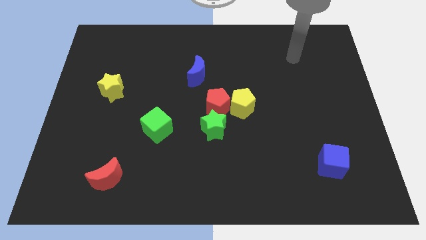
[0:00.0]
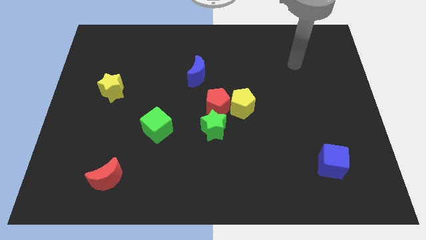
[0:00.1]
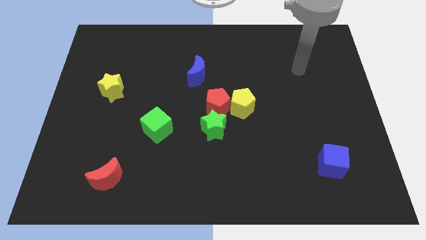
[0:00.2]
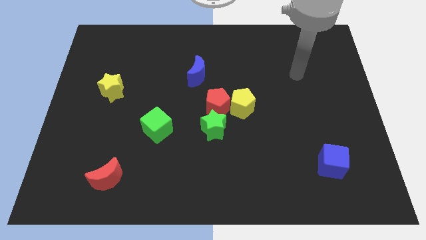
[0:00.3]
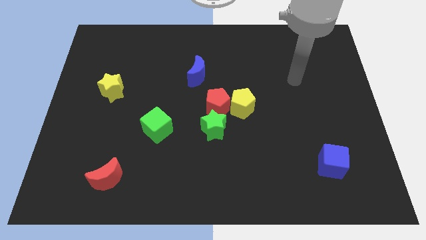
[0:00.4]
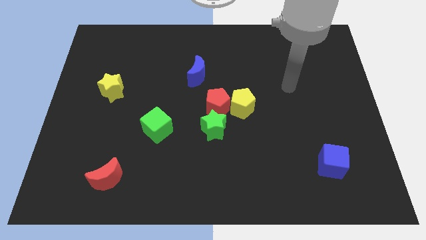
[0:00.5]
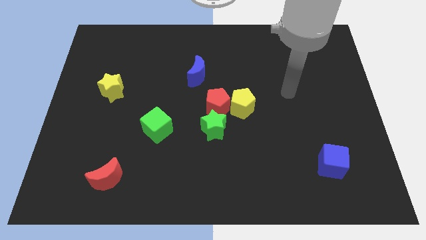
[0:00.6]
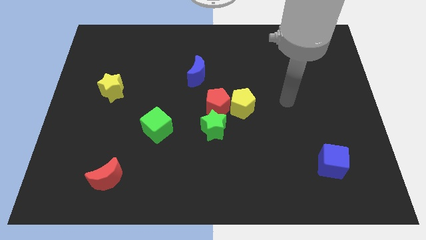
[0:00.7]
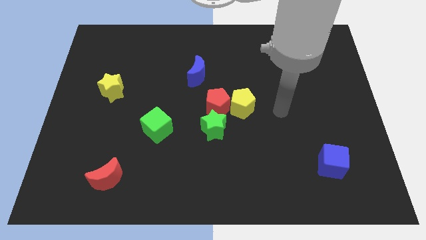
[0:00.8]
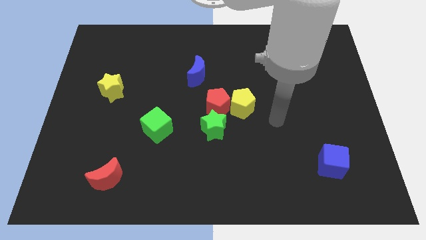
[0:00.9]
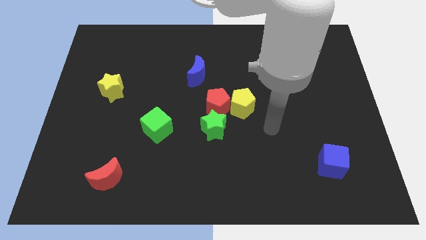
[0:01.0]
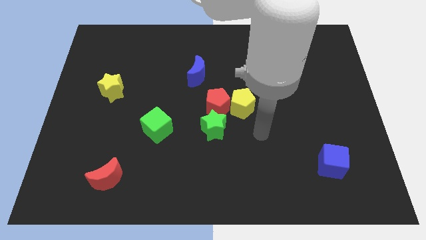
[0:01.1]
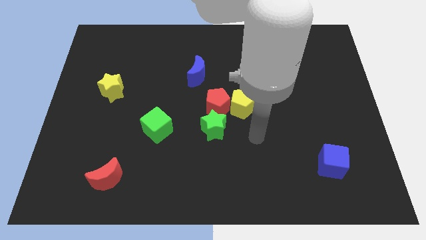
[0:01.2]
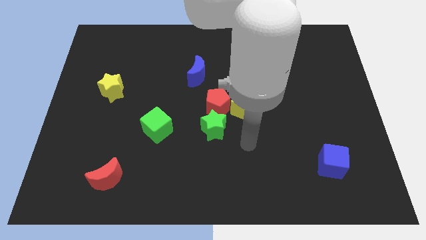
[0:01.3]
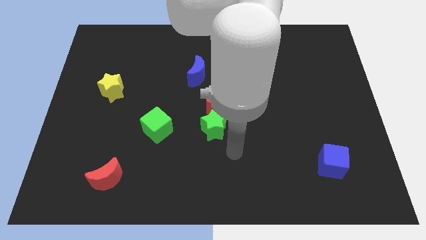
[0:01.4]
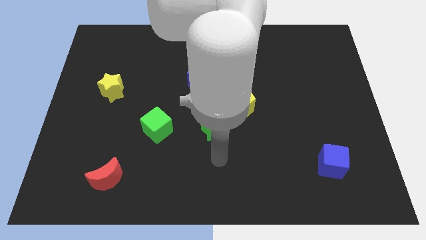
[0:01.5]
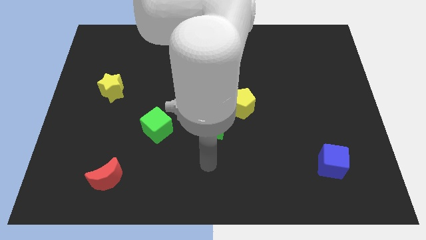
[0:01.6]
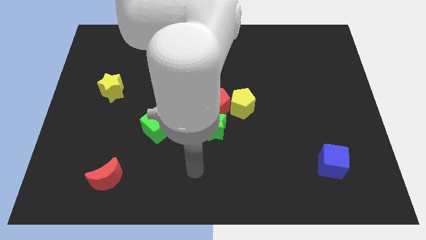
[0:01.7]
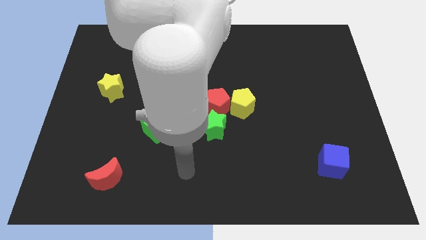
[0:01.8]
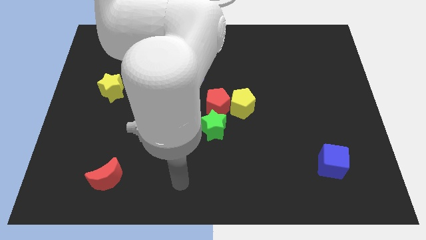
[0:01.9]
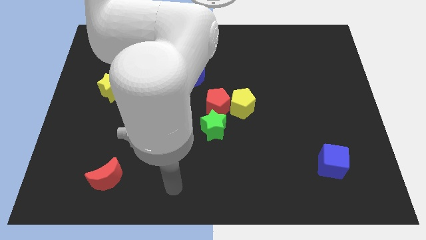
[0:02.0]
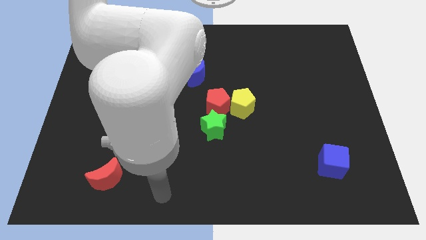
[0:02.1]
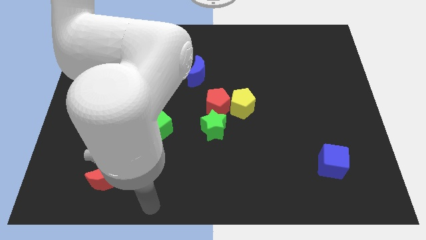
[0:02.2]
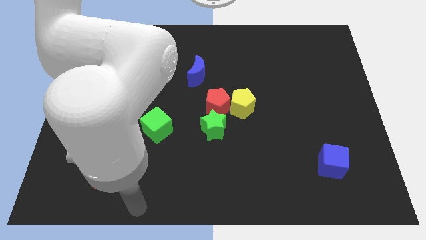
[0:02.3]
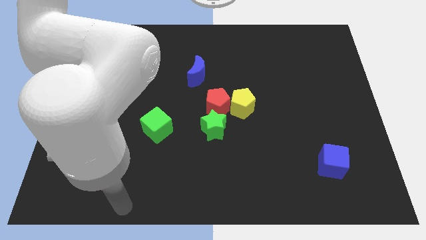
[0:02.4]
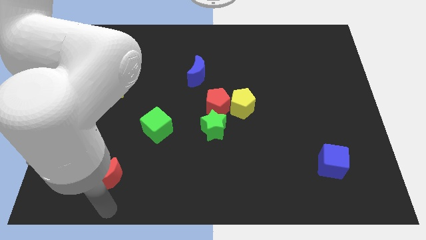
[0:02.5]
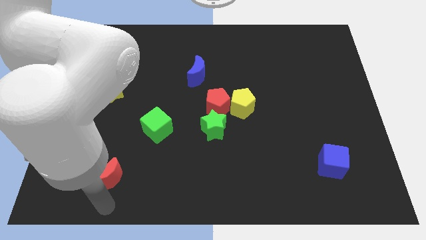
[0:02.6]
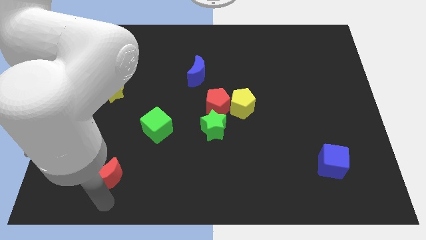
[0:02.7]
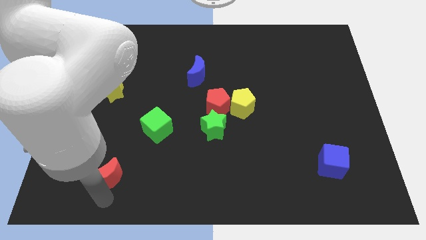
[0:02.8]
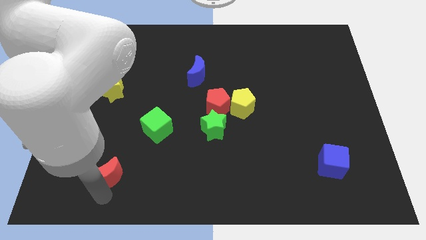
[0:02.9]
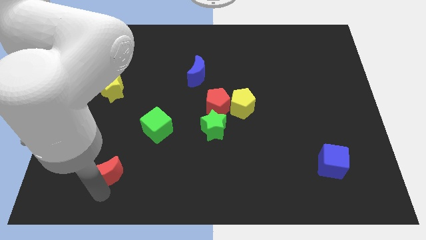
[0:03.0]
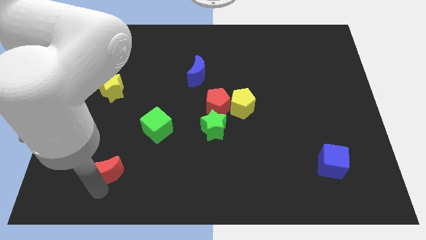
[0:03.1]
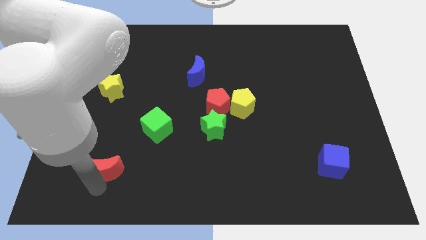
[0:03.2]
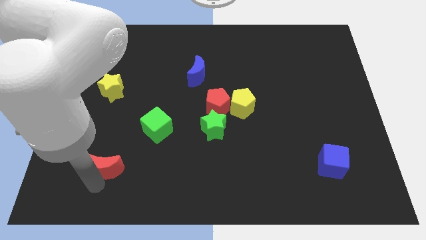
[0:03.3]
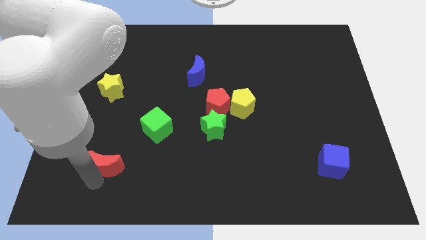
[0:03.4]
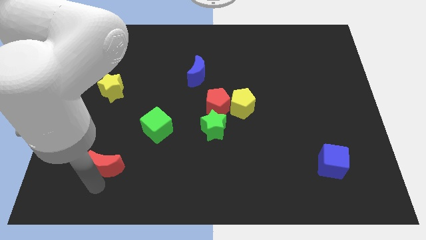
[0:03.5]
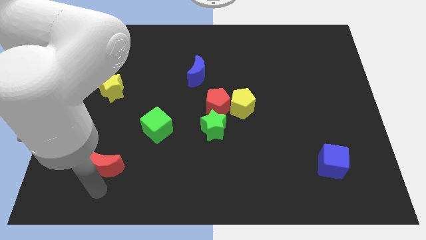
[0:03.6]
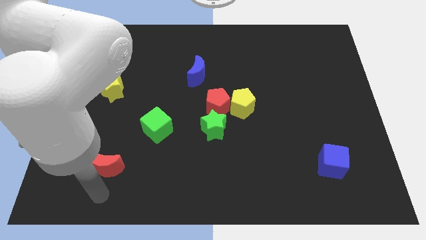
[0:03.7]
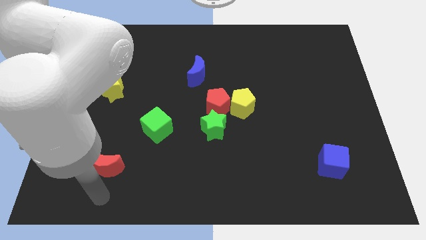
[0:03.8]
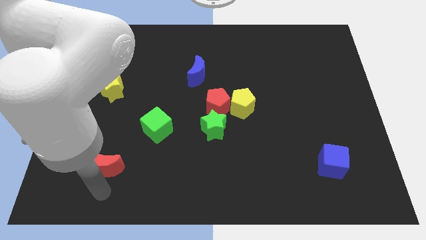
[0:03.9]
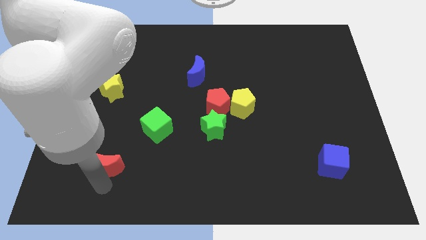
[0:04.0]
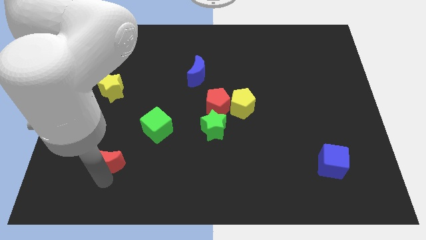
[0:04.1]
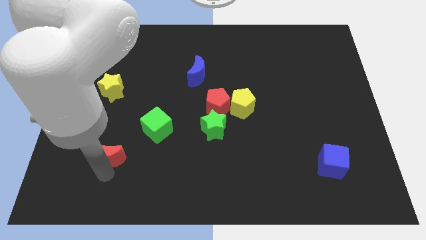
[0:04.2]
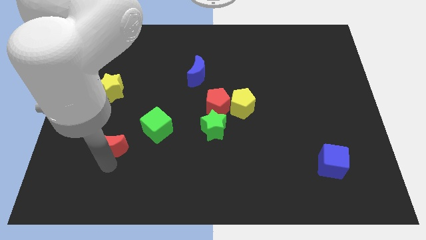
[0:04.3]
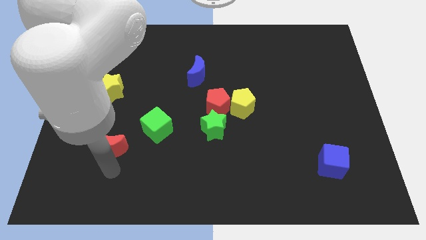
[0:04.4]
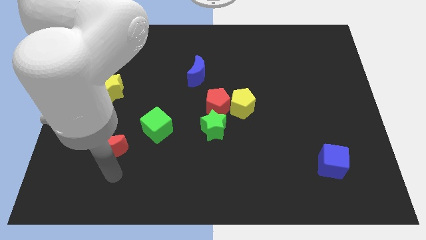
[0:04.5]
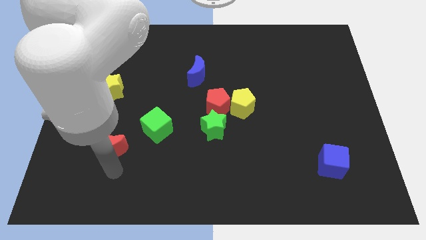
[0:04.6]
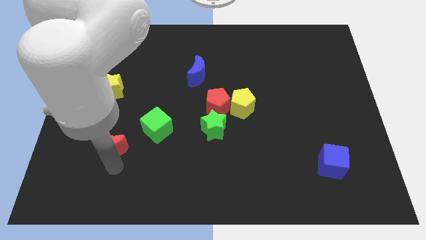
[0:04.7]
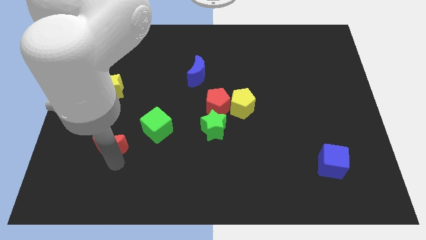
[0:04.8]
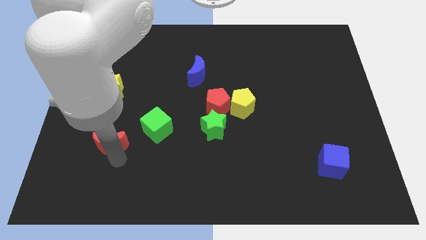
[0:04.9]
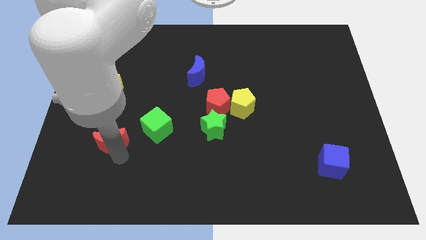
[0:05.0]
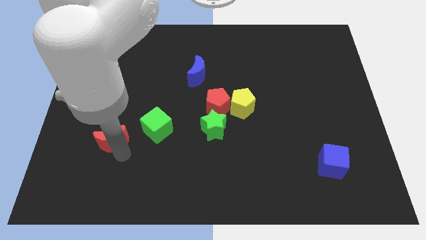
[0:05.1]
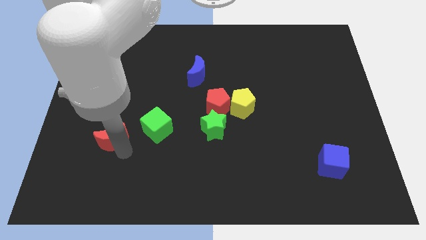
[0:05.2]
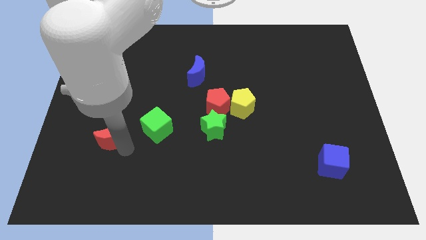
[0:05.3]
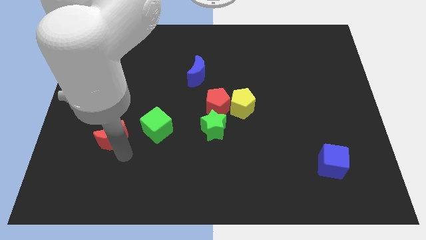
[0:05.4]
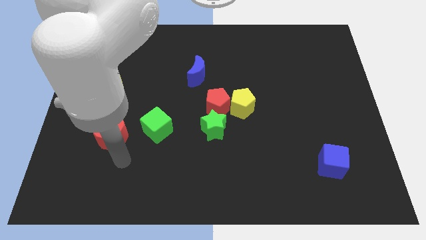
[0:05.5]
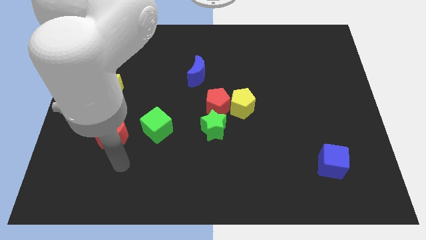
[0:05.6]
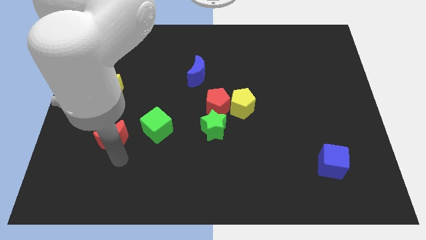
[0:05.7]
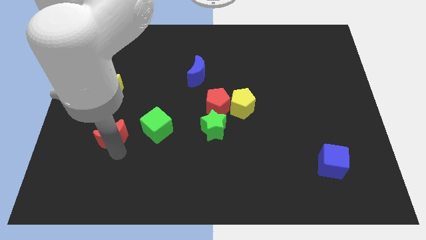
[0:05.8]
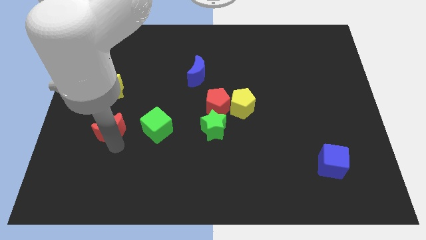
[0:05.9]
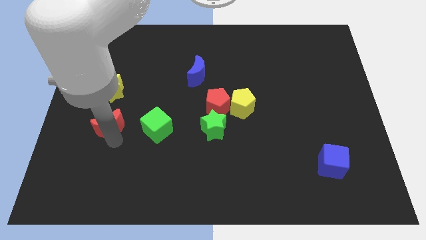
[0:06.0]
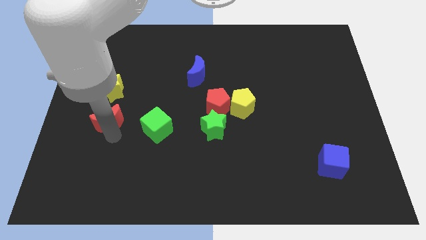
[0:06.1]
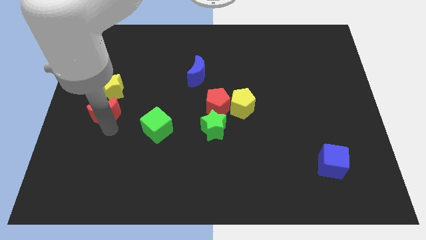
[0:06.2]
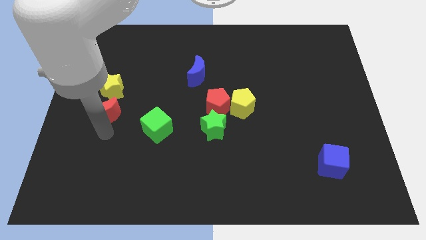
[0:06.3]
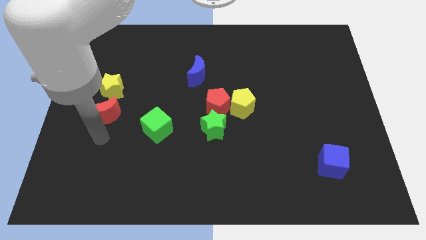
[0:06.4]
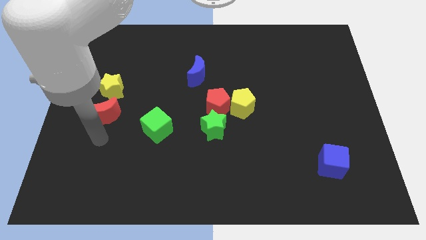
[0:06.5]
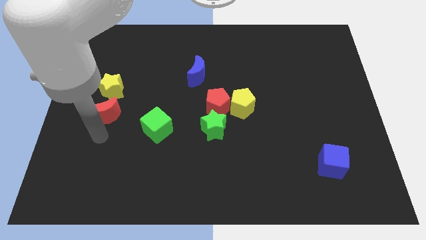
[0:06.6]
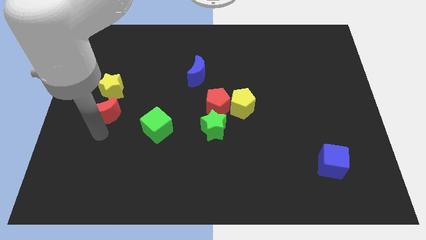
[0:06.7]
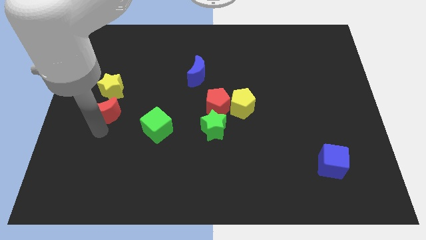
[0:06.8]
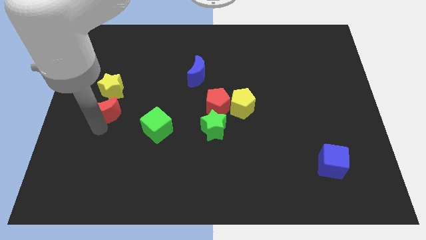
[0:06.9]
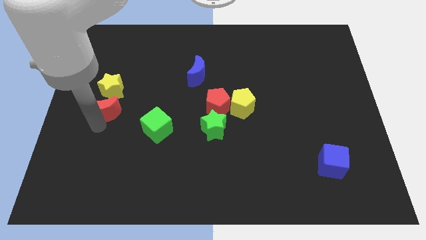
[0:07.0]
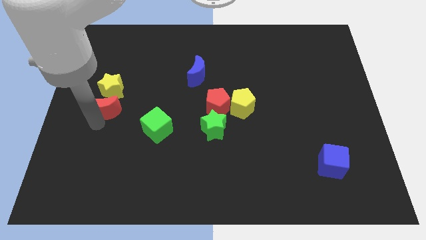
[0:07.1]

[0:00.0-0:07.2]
move the red moon towards the yellow star
